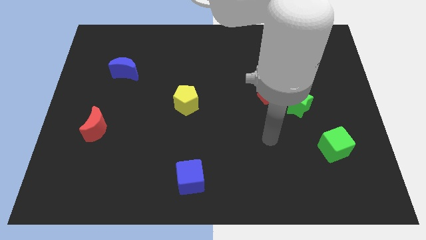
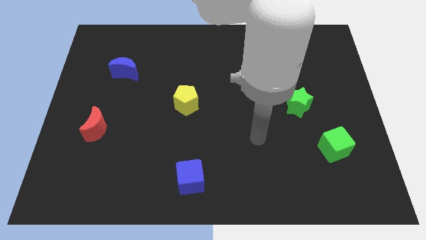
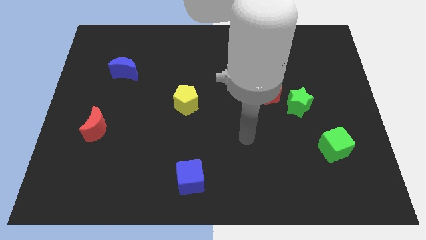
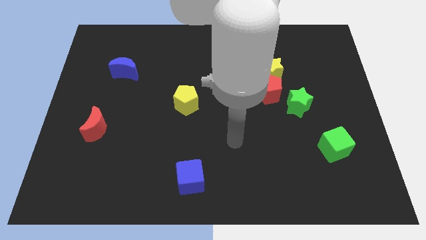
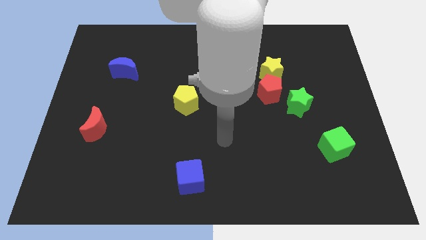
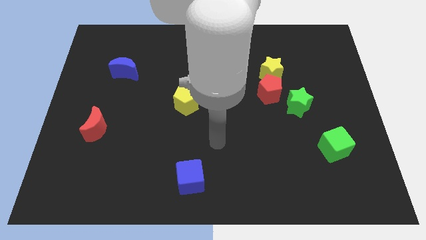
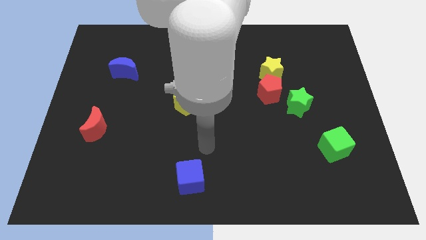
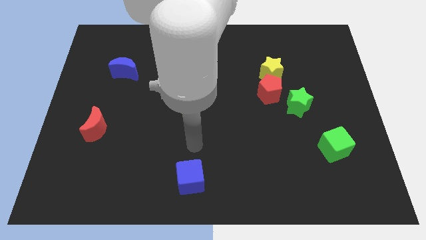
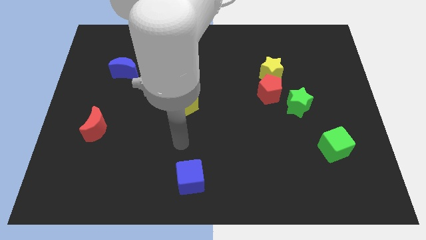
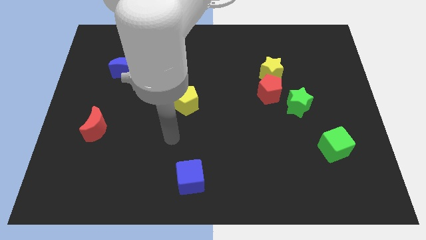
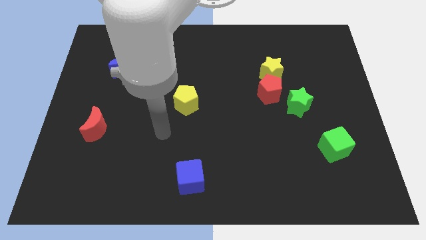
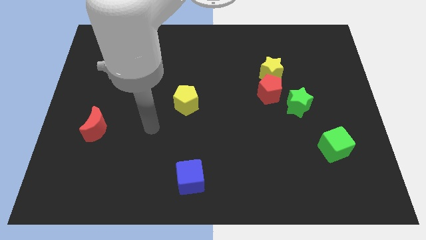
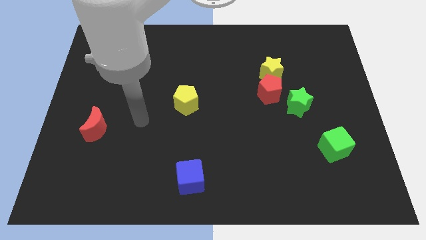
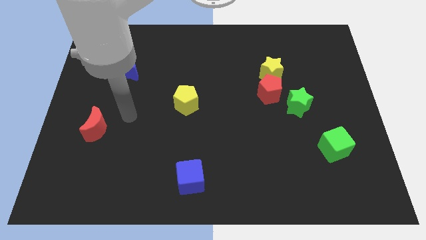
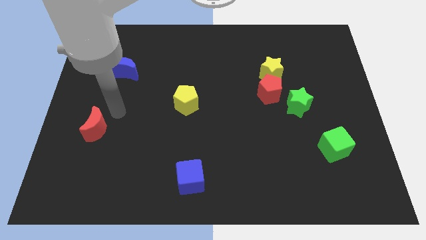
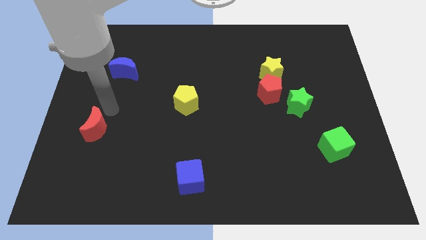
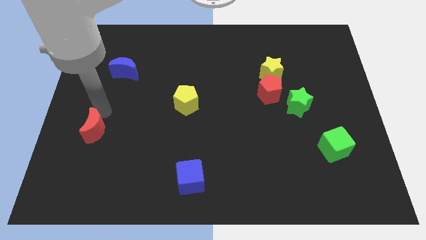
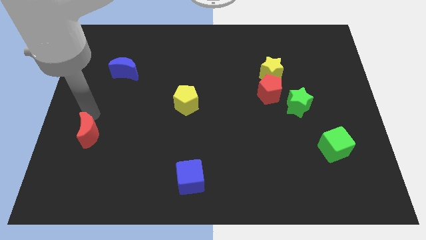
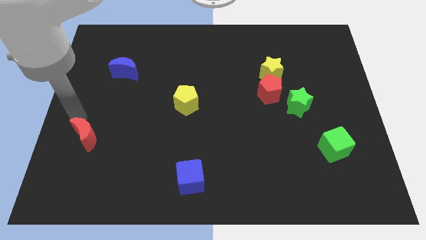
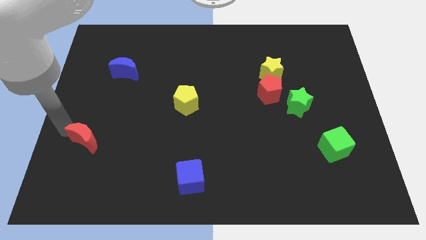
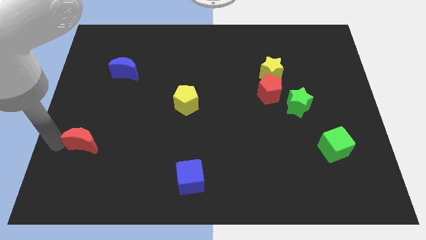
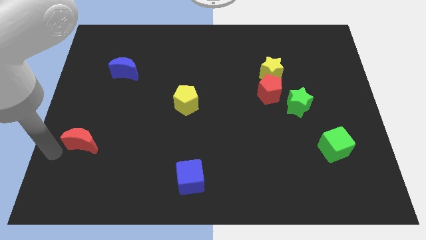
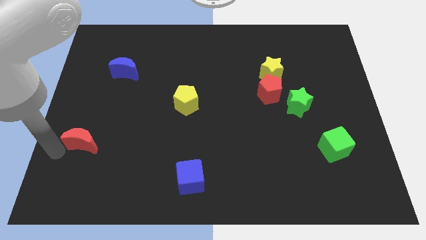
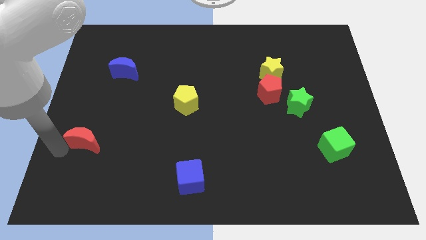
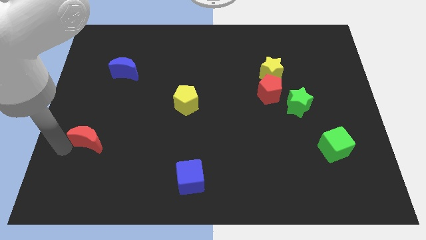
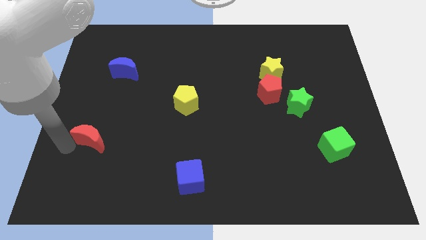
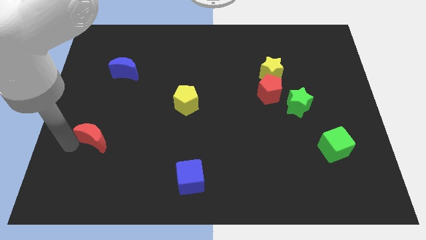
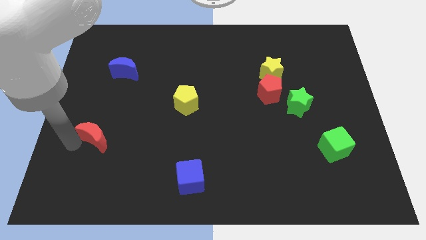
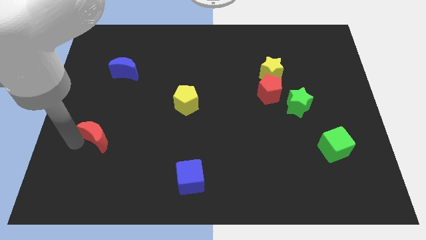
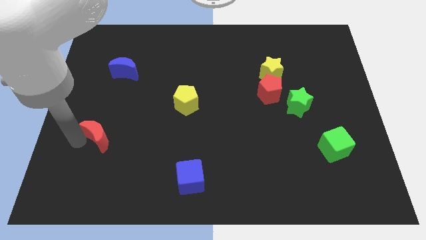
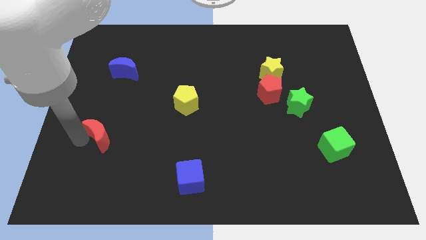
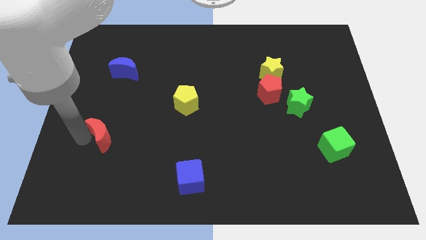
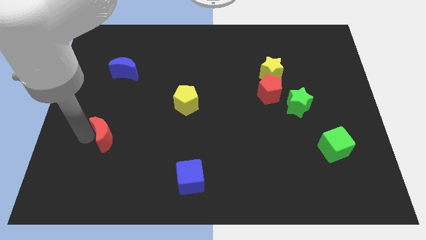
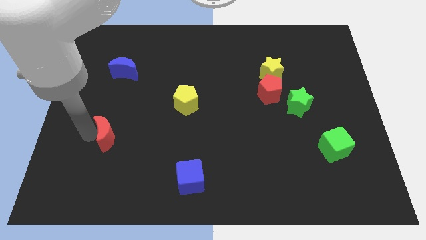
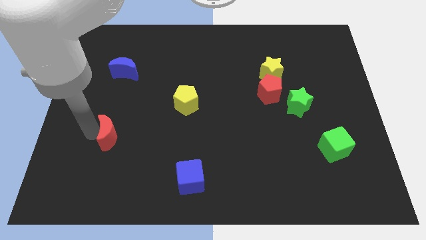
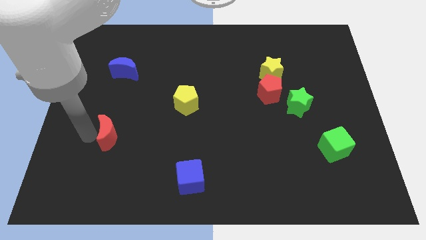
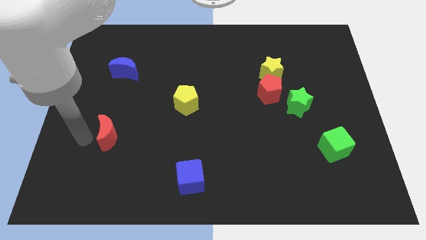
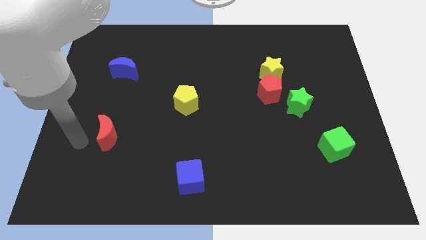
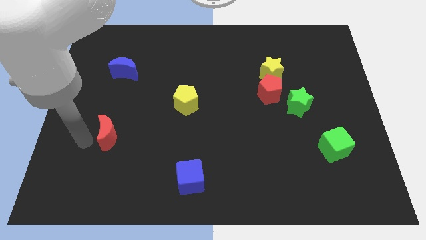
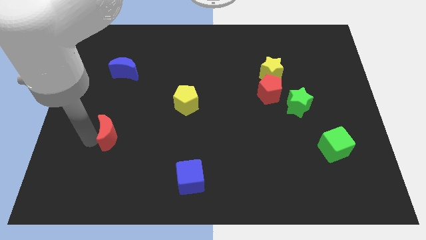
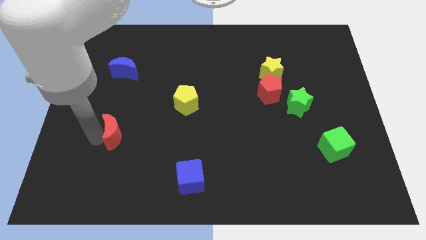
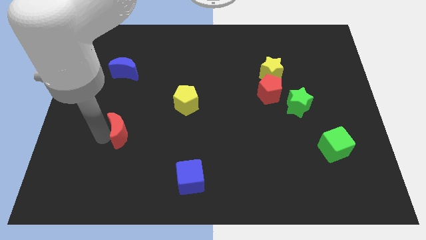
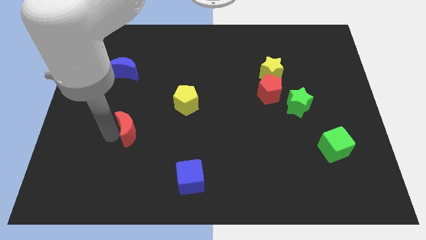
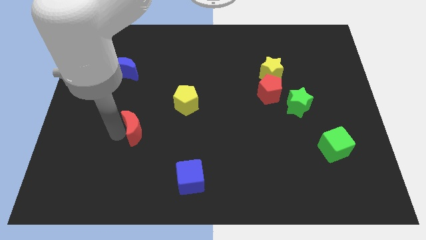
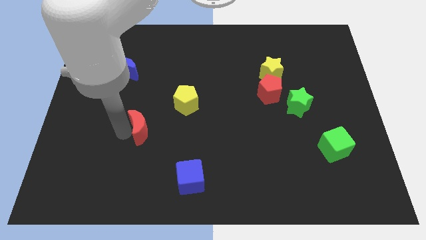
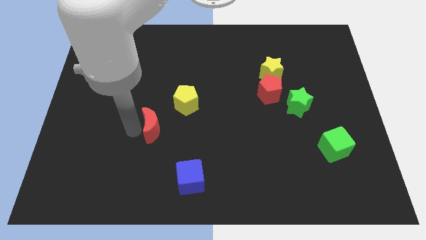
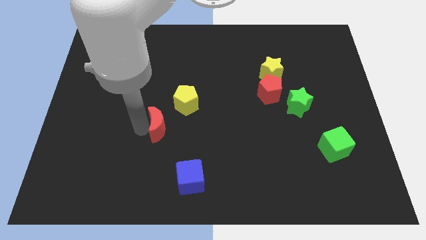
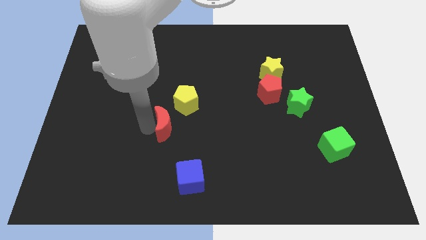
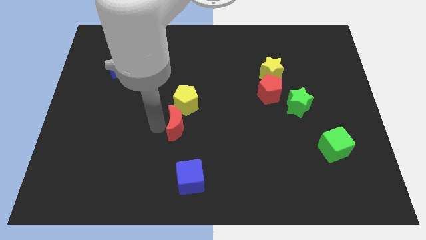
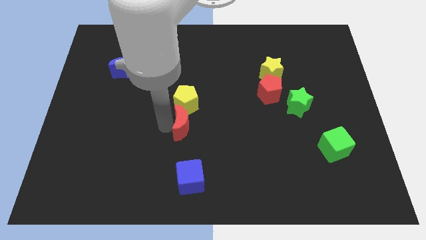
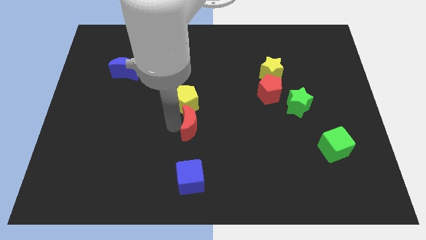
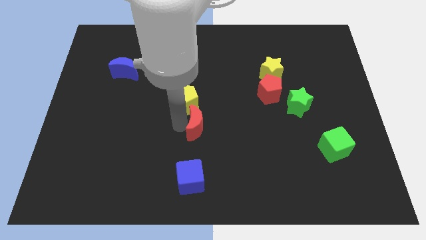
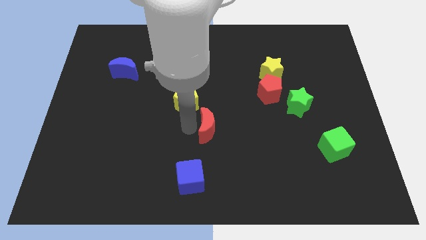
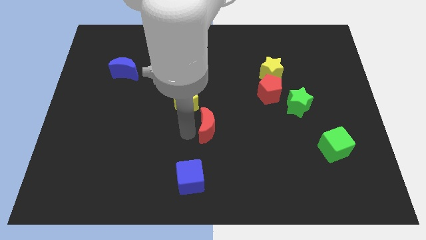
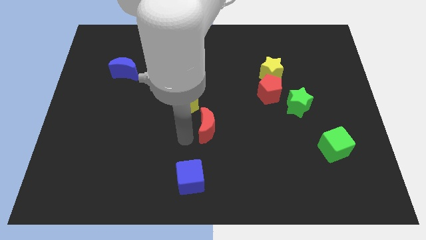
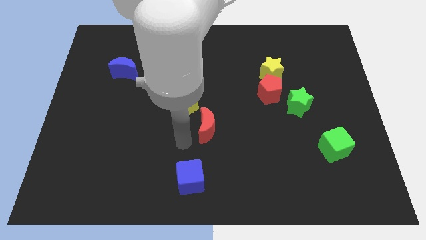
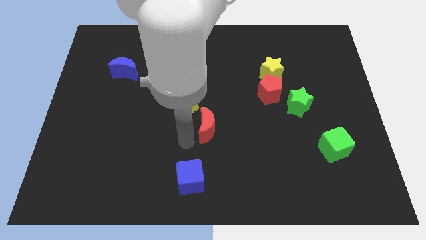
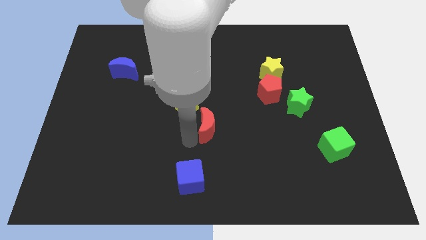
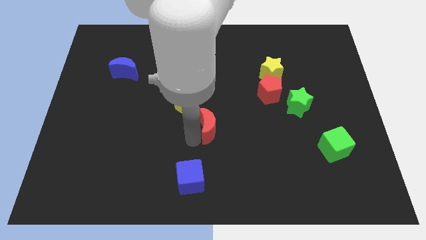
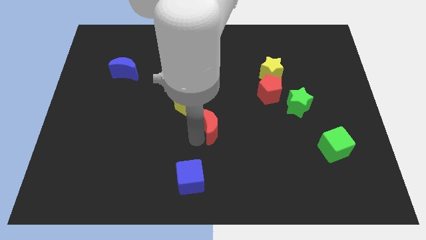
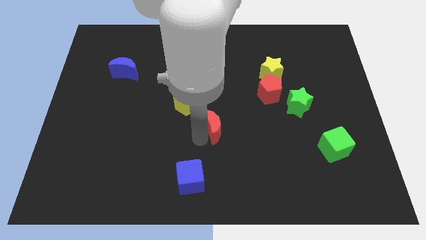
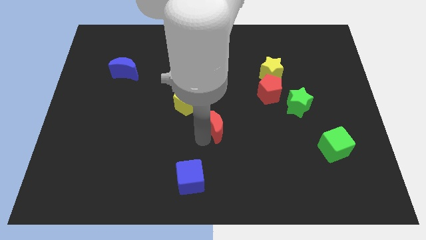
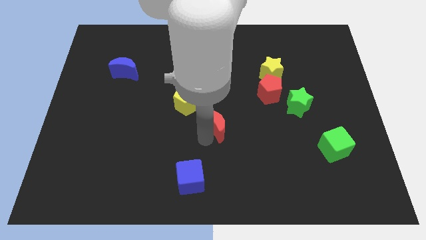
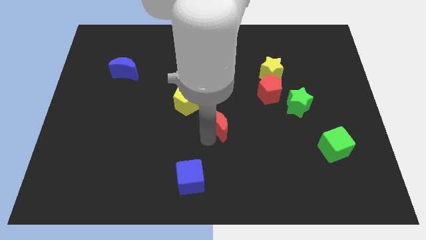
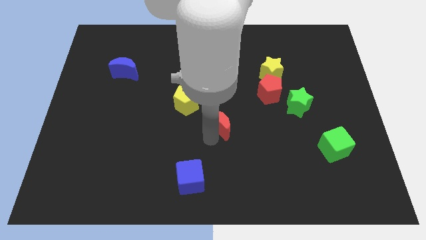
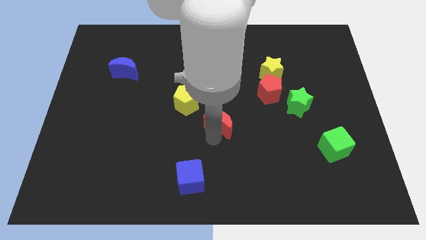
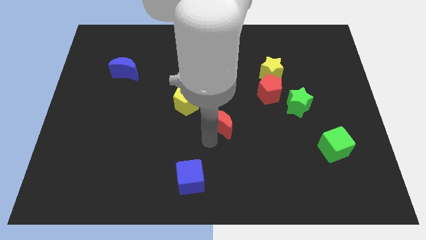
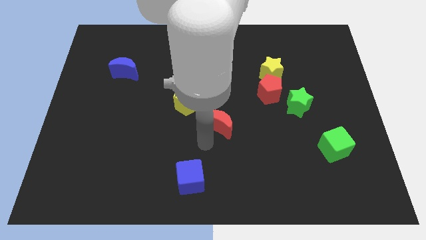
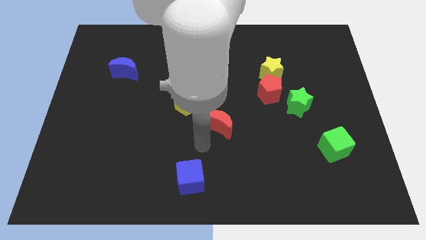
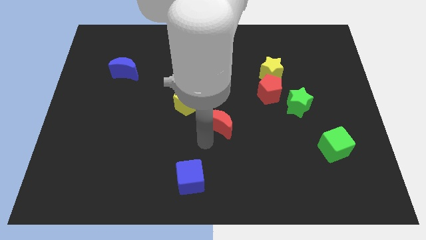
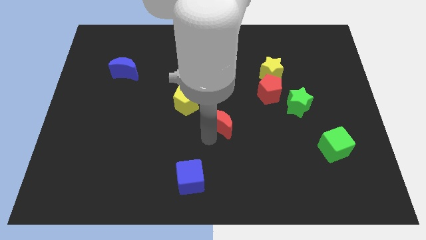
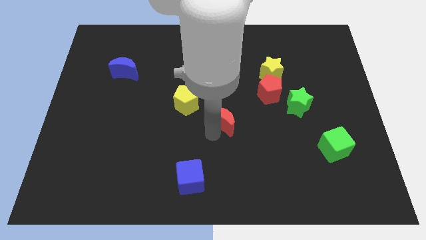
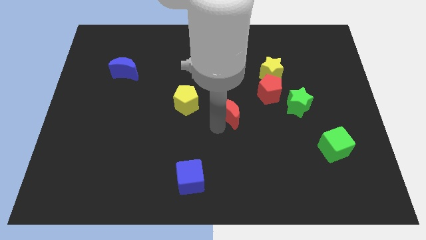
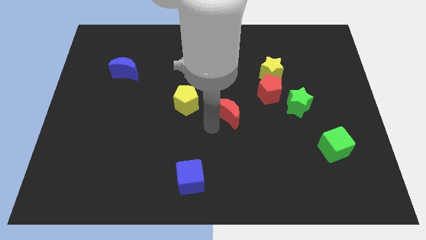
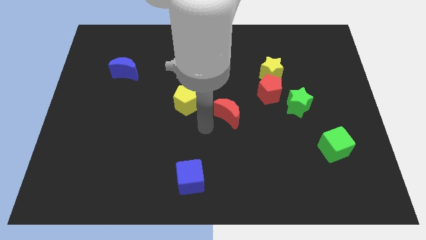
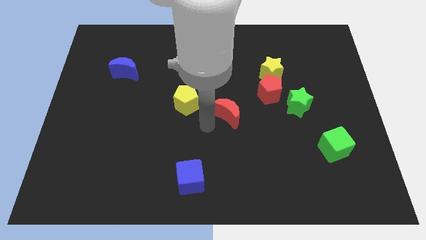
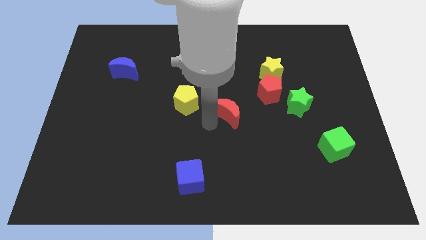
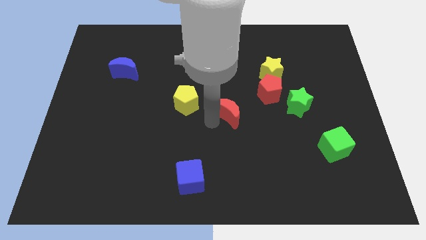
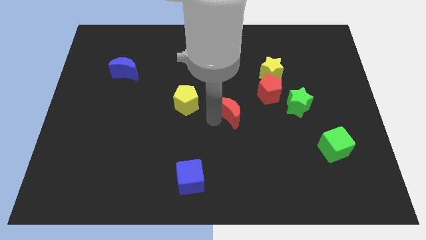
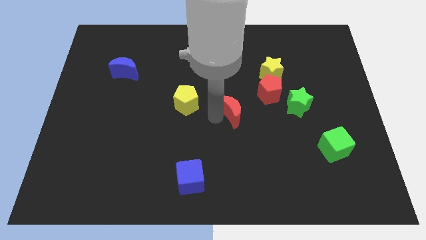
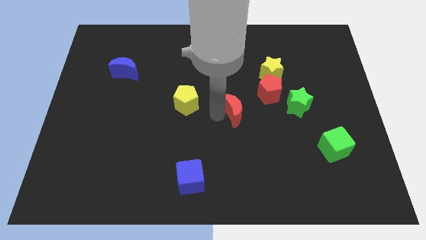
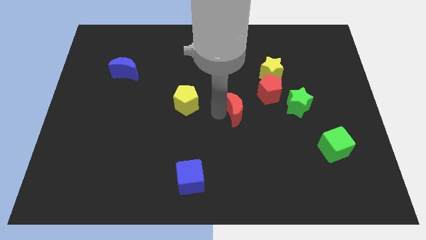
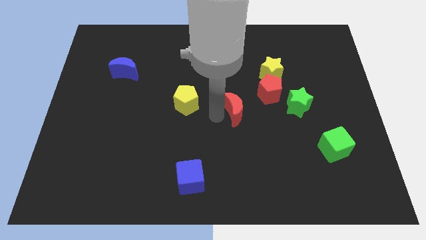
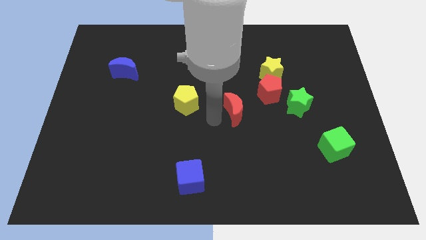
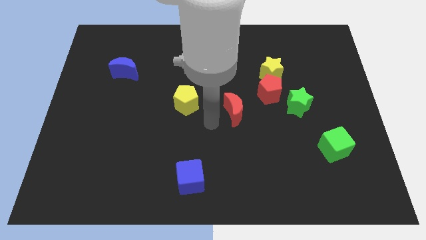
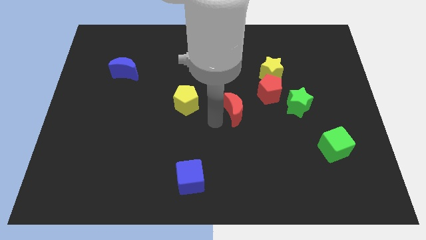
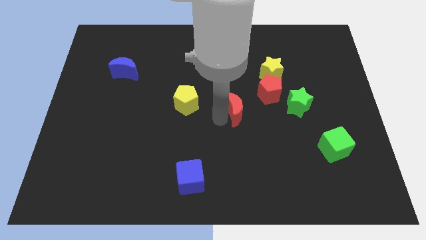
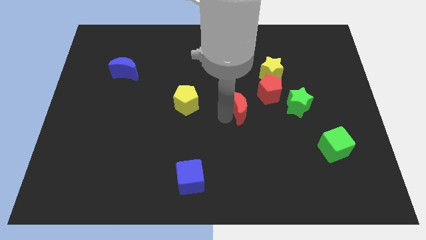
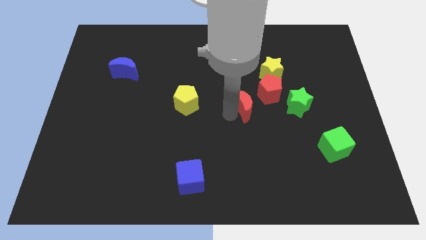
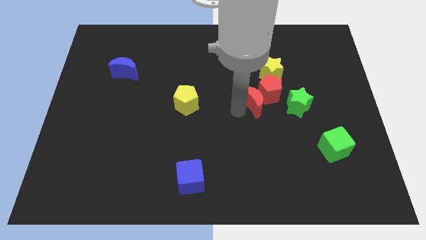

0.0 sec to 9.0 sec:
push the red moon close to the red pentagon
